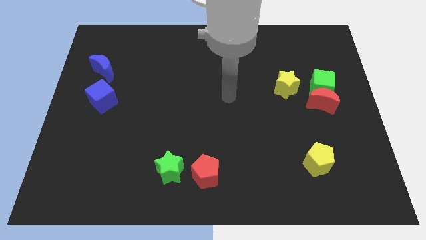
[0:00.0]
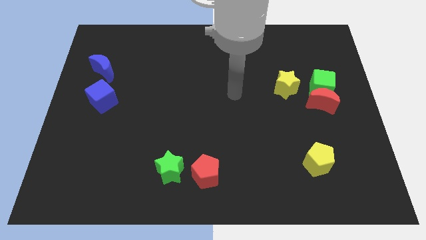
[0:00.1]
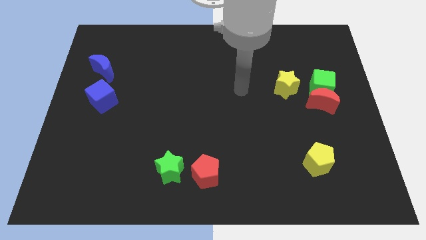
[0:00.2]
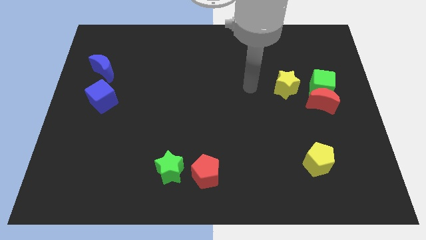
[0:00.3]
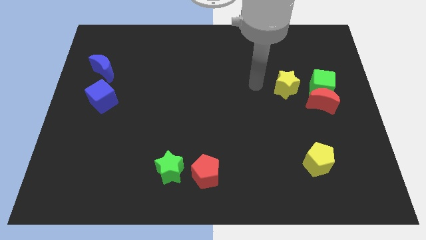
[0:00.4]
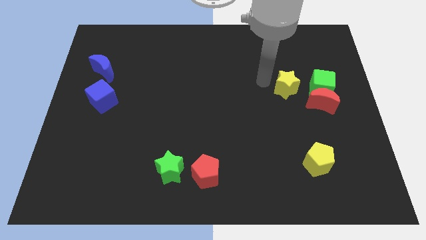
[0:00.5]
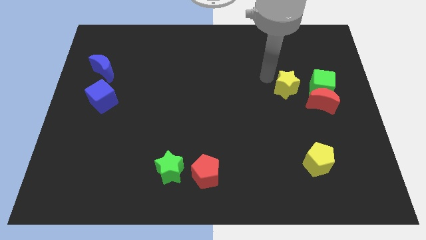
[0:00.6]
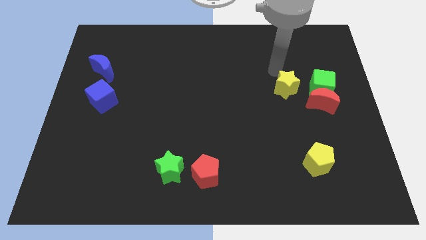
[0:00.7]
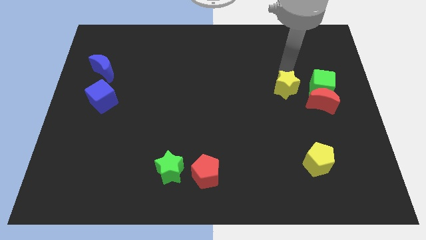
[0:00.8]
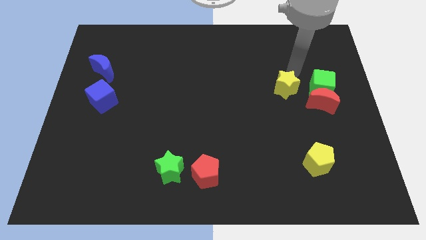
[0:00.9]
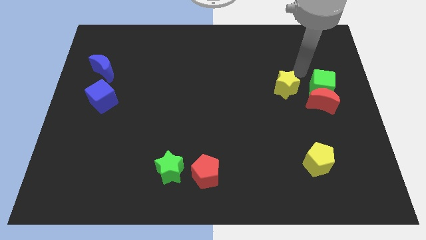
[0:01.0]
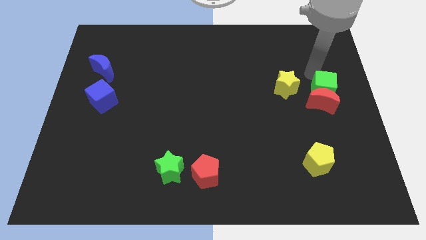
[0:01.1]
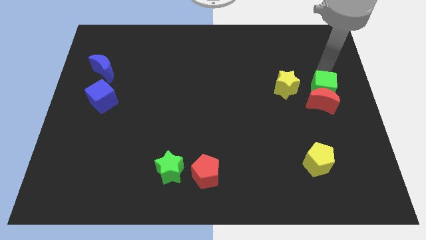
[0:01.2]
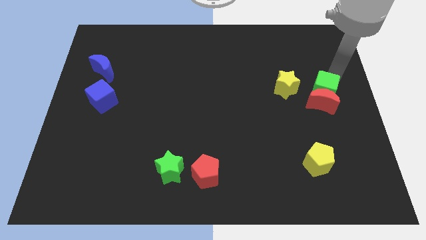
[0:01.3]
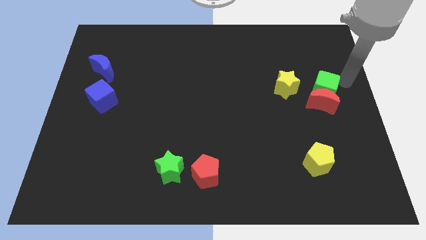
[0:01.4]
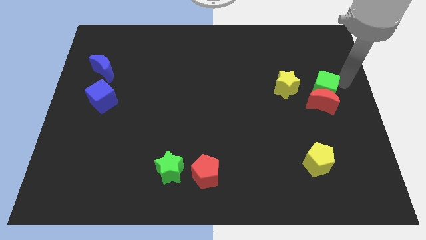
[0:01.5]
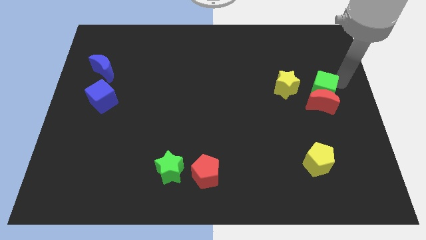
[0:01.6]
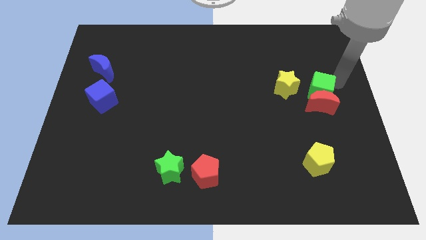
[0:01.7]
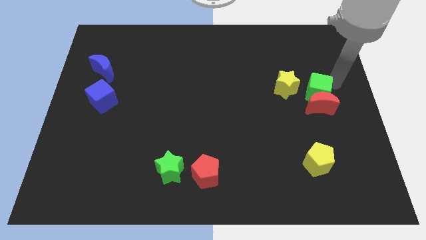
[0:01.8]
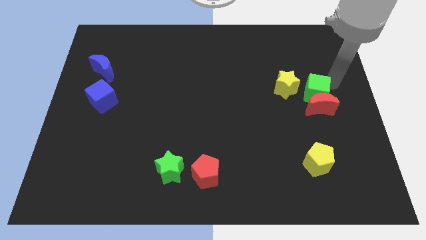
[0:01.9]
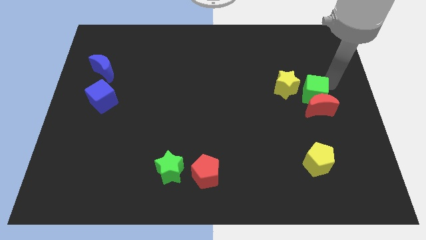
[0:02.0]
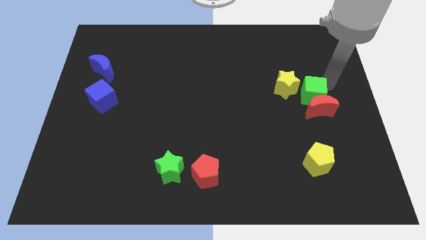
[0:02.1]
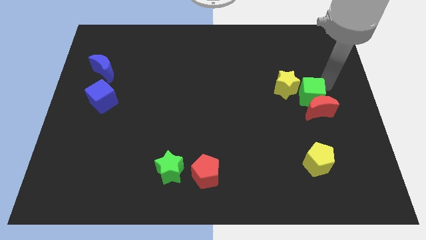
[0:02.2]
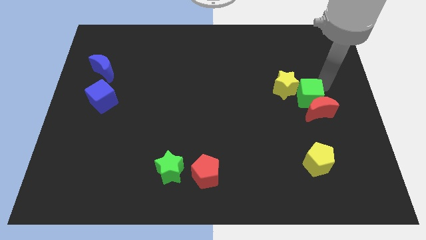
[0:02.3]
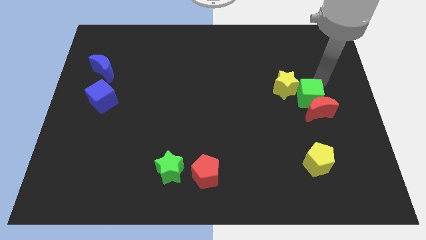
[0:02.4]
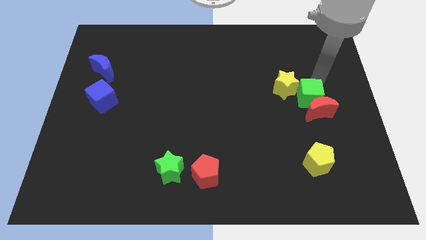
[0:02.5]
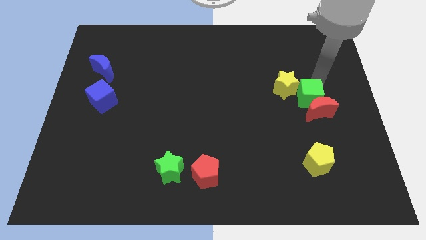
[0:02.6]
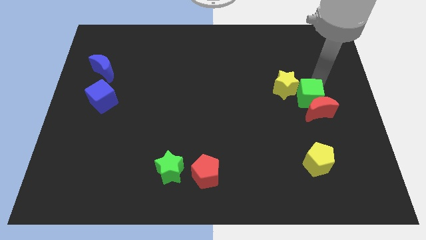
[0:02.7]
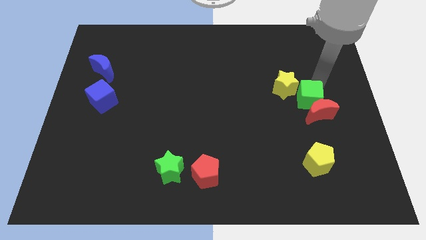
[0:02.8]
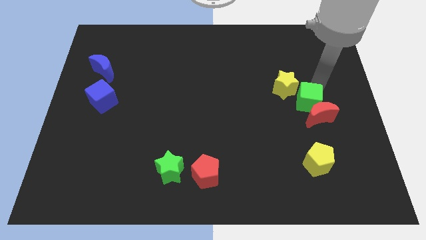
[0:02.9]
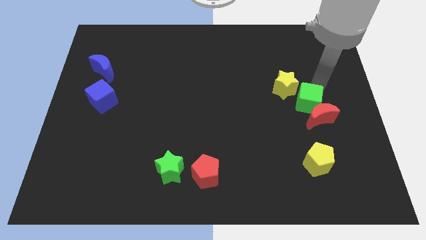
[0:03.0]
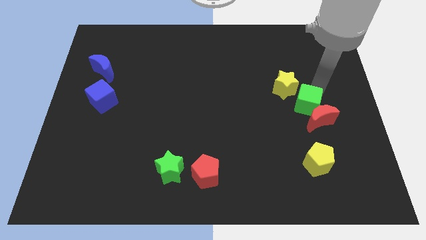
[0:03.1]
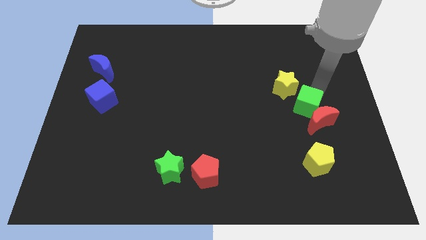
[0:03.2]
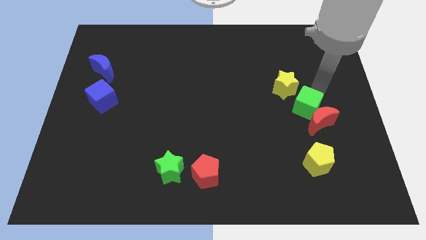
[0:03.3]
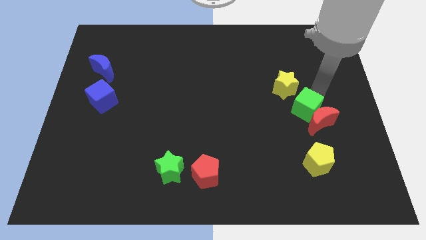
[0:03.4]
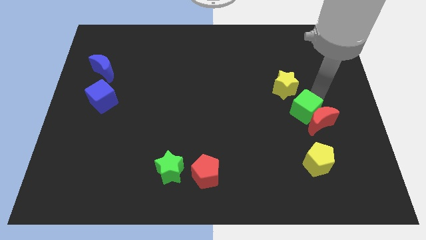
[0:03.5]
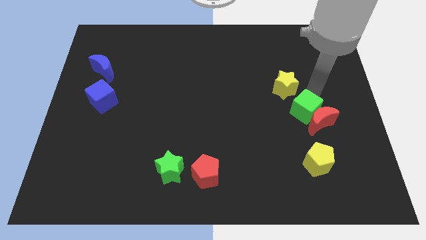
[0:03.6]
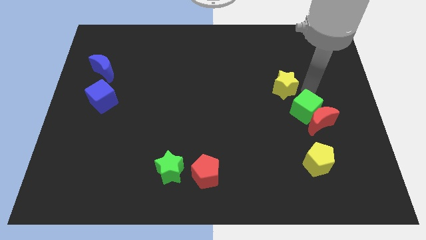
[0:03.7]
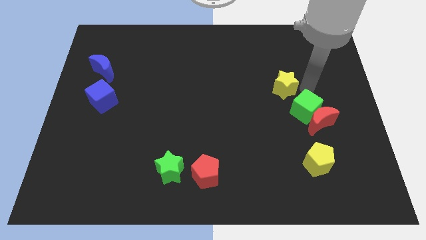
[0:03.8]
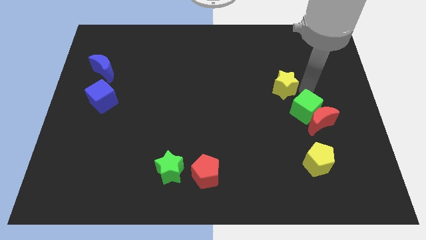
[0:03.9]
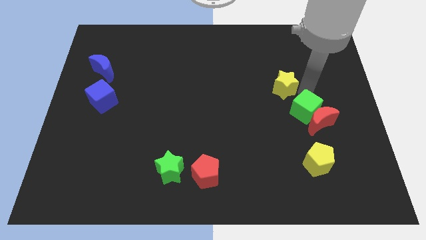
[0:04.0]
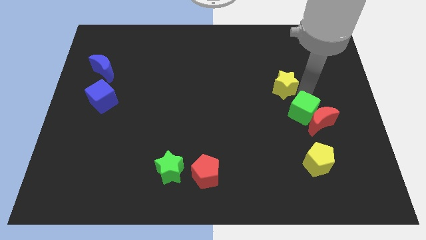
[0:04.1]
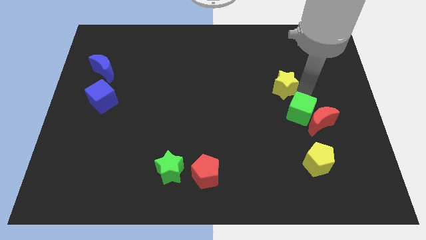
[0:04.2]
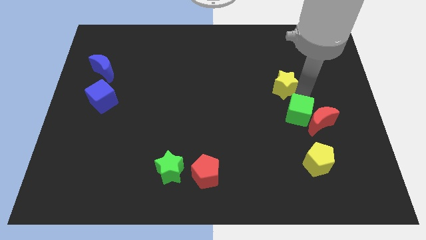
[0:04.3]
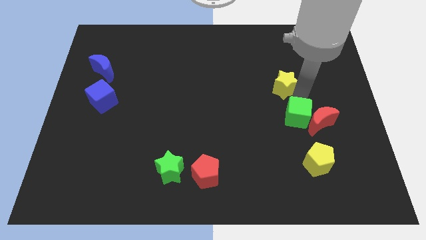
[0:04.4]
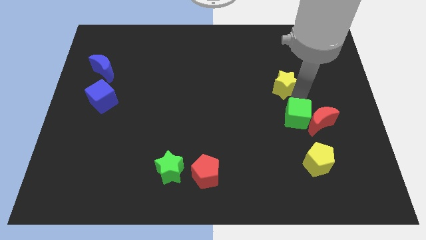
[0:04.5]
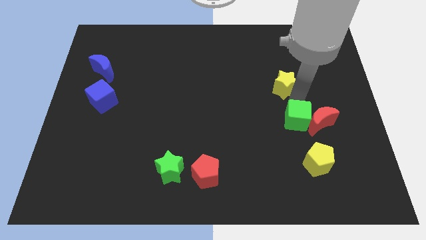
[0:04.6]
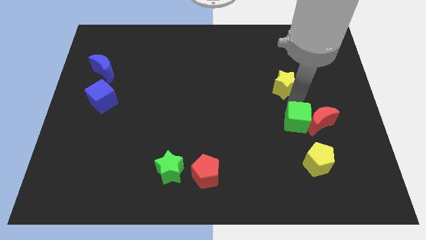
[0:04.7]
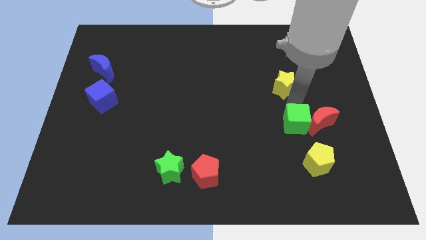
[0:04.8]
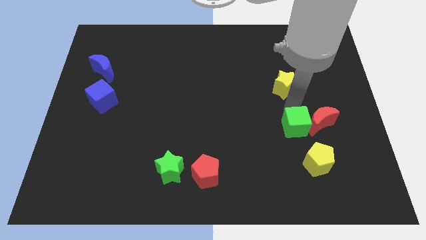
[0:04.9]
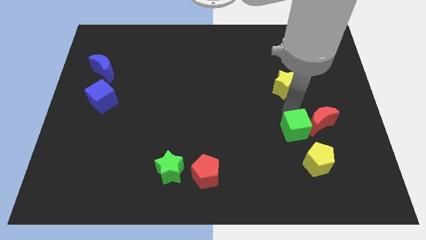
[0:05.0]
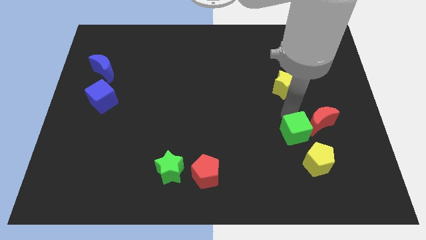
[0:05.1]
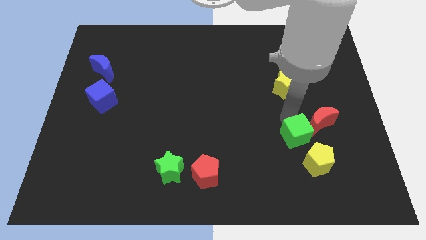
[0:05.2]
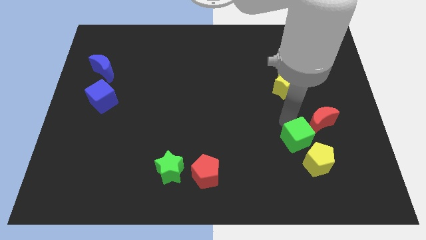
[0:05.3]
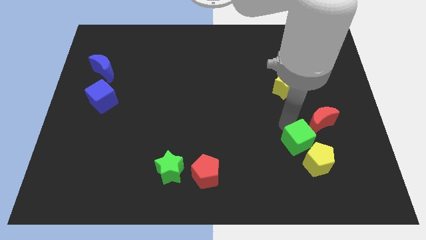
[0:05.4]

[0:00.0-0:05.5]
push the green cube close to the yellow pentagon

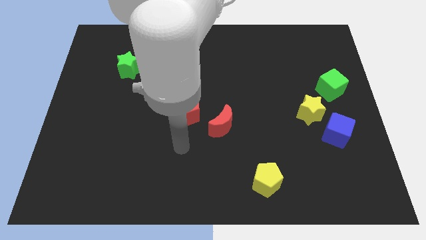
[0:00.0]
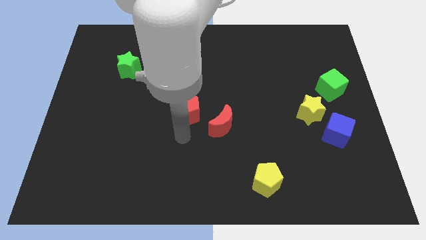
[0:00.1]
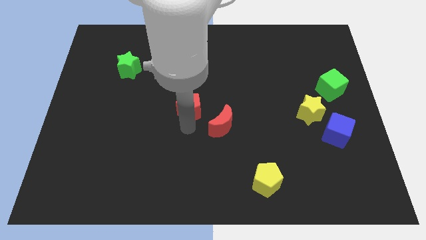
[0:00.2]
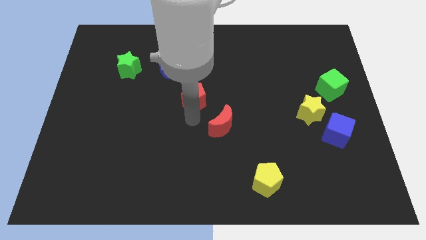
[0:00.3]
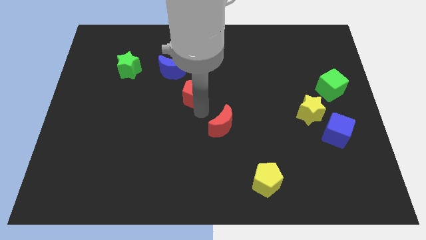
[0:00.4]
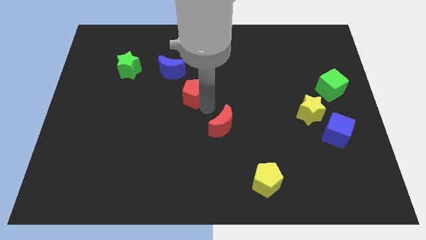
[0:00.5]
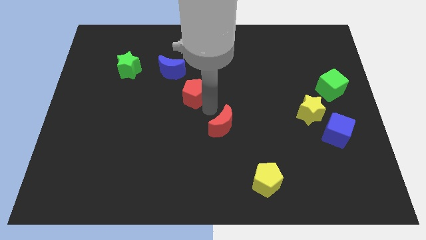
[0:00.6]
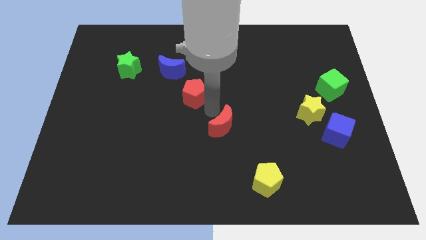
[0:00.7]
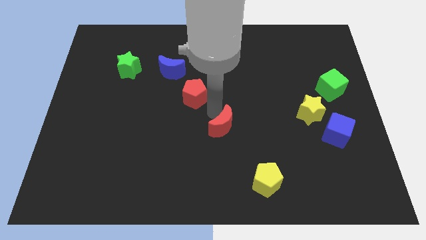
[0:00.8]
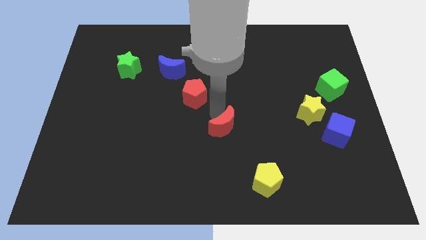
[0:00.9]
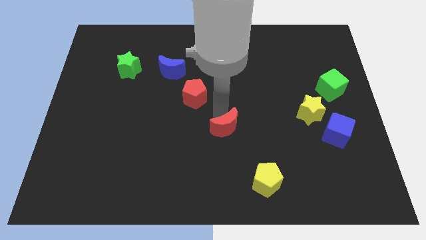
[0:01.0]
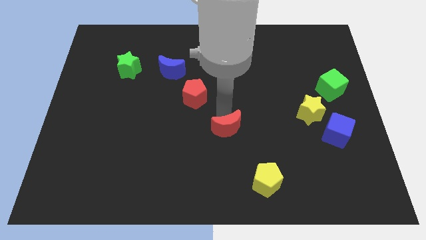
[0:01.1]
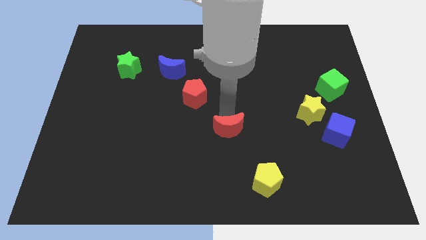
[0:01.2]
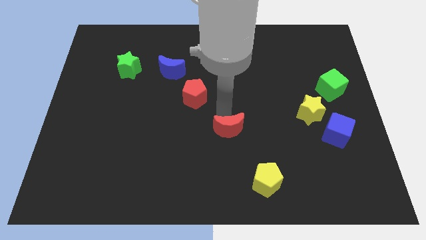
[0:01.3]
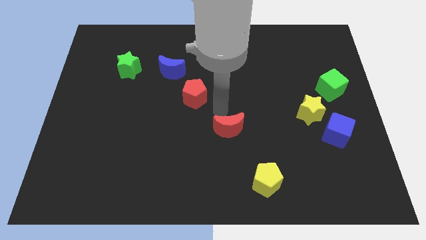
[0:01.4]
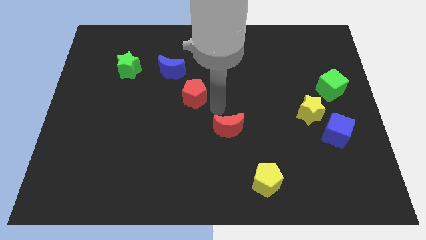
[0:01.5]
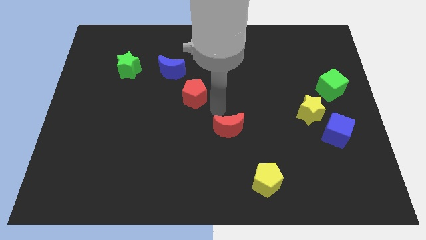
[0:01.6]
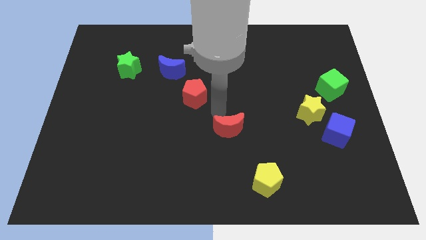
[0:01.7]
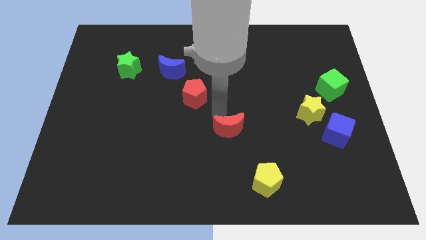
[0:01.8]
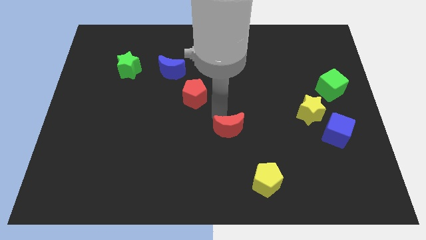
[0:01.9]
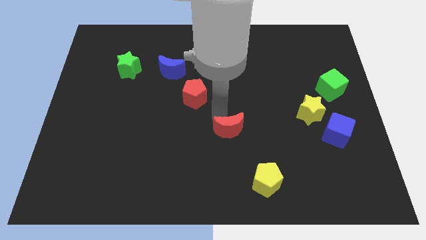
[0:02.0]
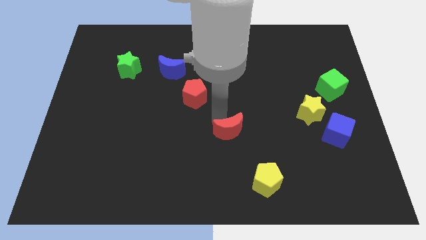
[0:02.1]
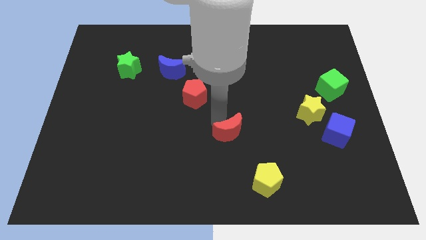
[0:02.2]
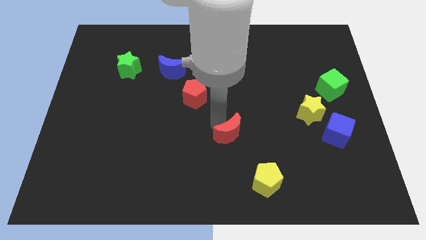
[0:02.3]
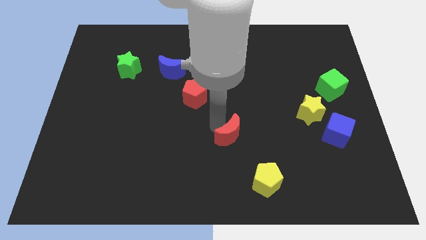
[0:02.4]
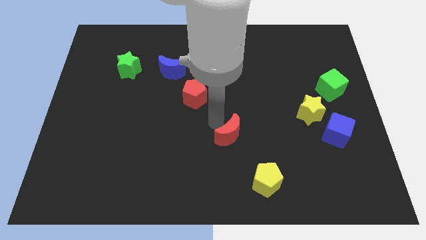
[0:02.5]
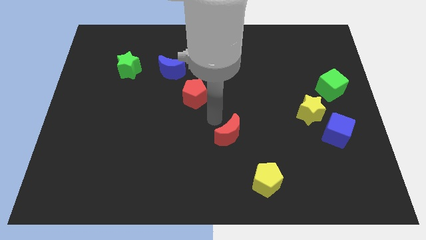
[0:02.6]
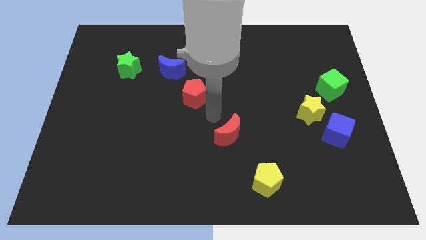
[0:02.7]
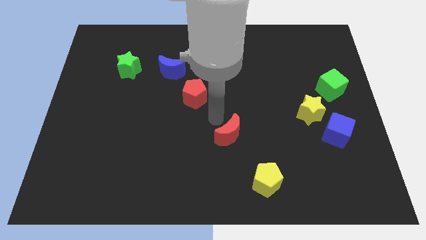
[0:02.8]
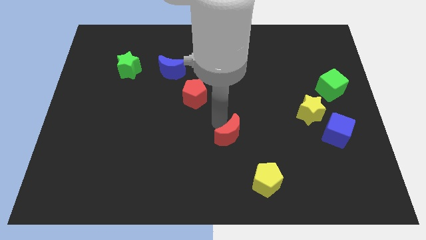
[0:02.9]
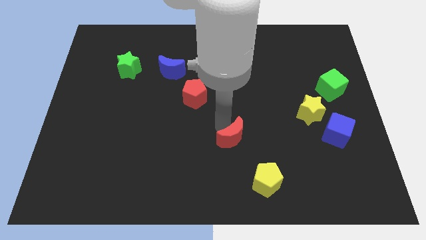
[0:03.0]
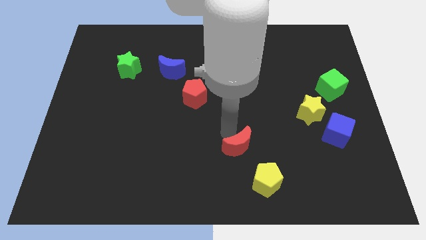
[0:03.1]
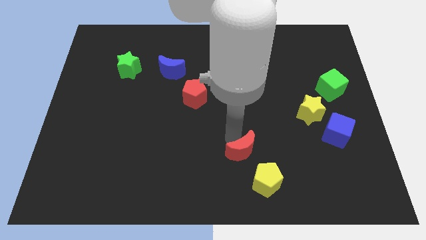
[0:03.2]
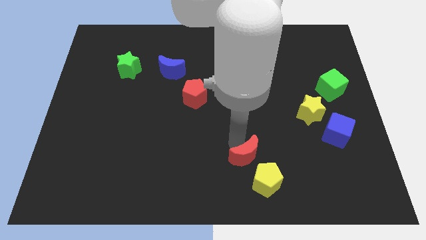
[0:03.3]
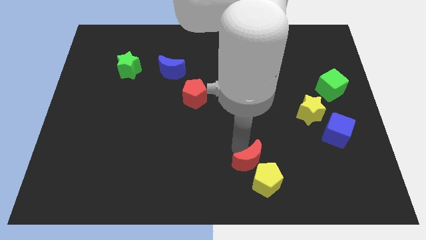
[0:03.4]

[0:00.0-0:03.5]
slide the red moon towards the yellow pentagon
